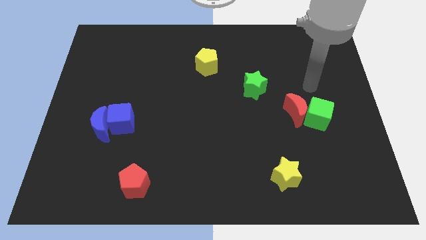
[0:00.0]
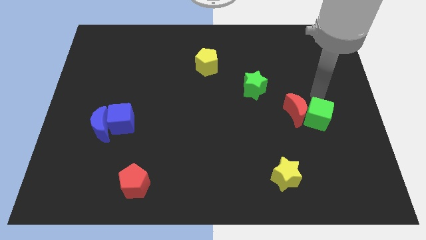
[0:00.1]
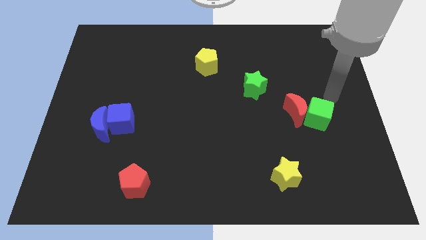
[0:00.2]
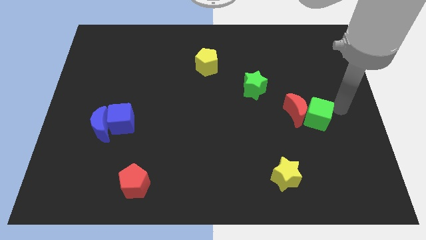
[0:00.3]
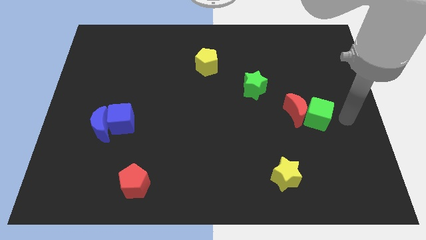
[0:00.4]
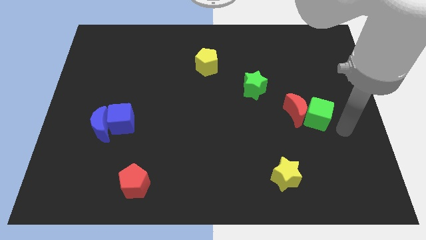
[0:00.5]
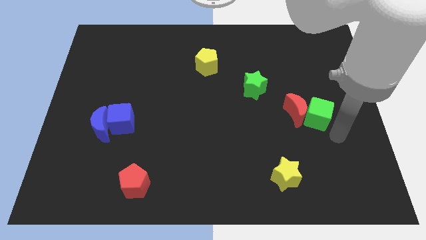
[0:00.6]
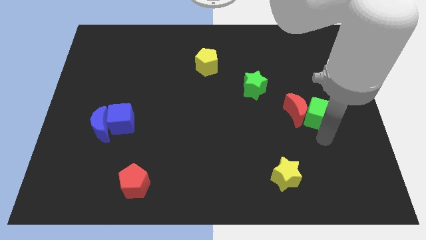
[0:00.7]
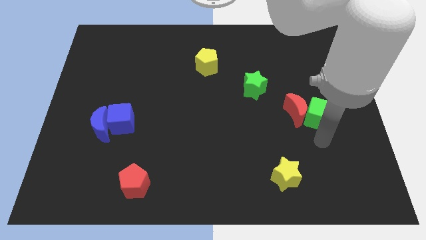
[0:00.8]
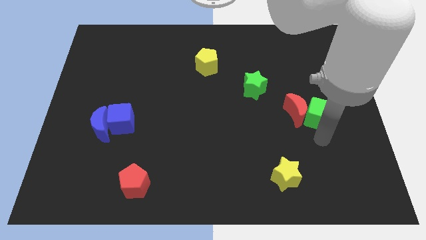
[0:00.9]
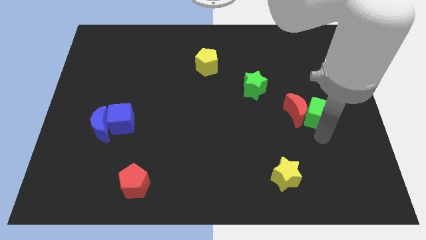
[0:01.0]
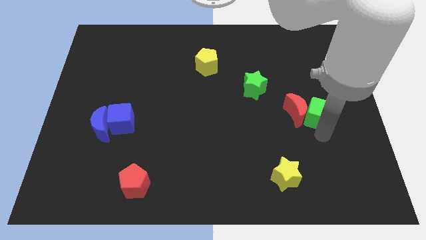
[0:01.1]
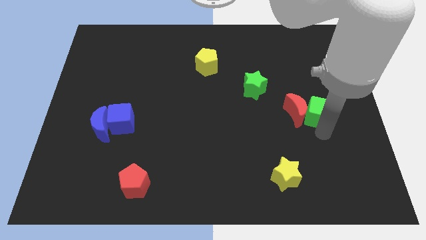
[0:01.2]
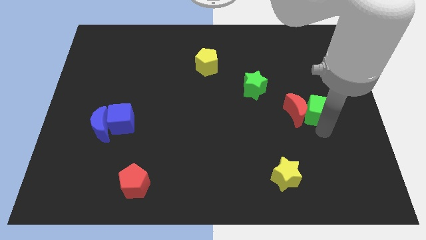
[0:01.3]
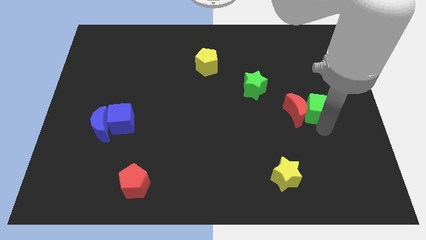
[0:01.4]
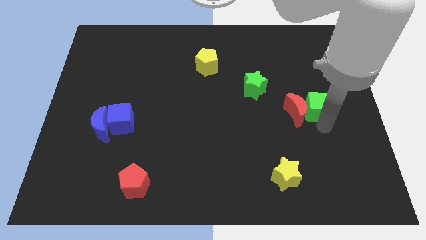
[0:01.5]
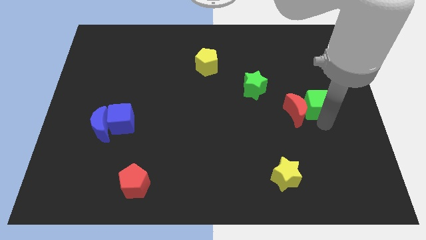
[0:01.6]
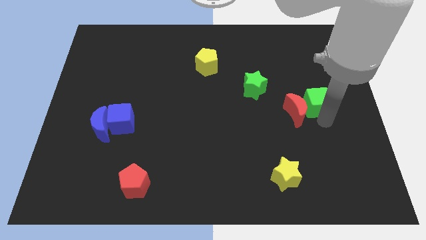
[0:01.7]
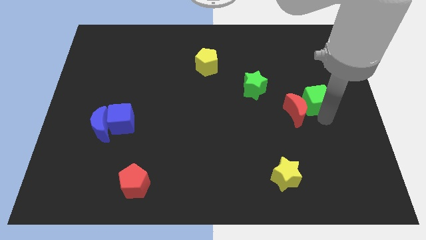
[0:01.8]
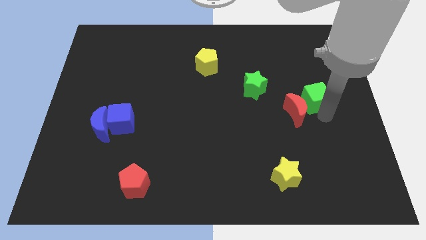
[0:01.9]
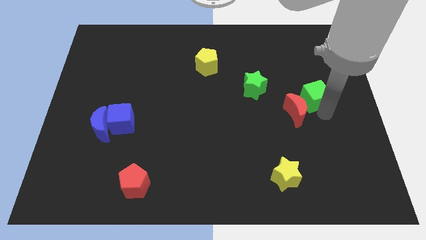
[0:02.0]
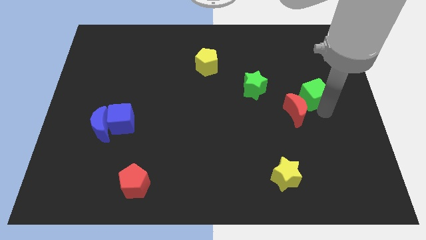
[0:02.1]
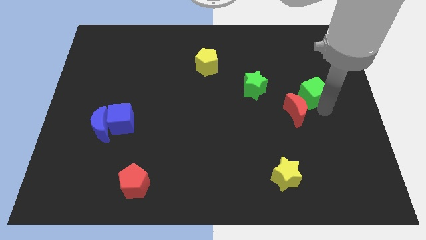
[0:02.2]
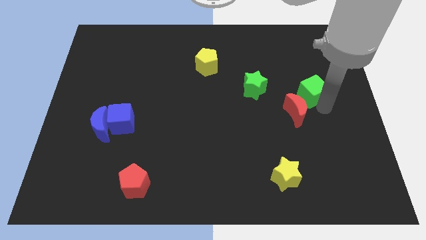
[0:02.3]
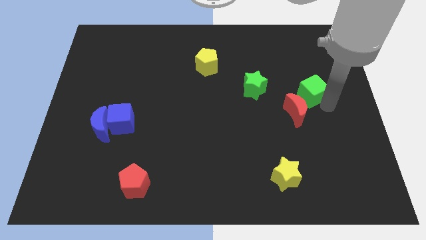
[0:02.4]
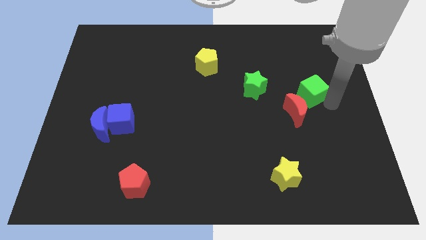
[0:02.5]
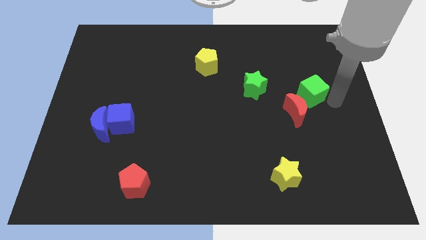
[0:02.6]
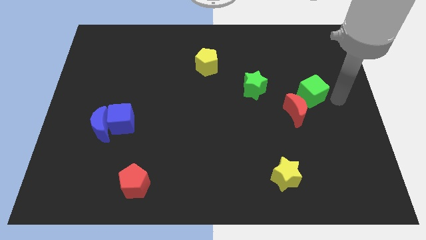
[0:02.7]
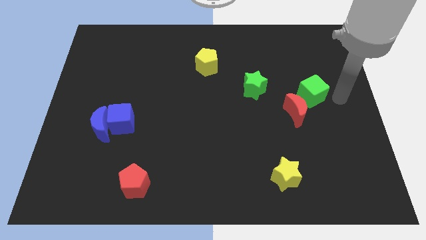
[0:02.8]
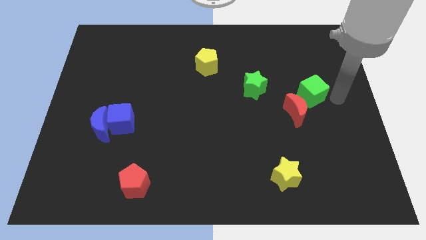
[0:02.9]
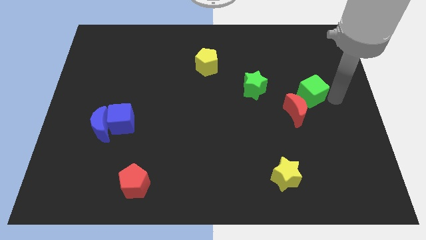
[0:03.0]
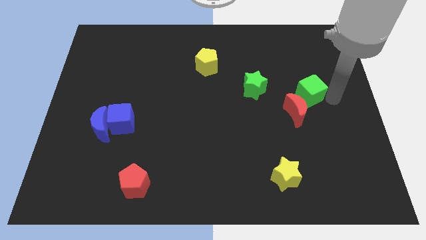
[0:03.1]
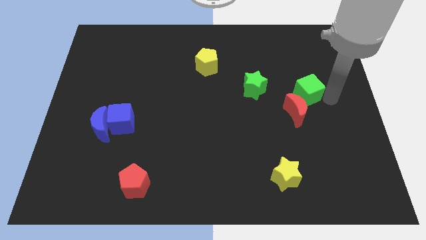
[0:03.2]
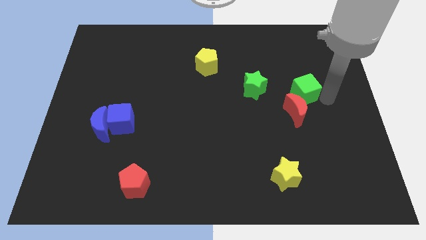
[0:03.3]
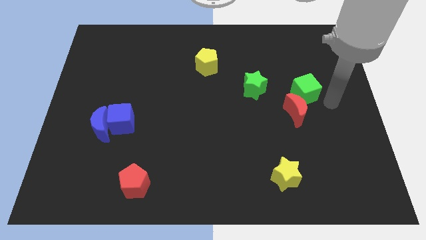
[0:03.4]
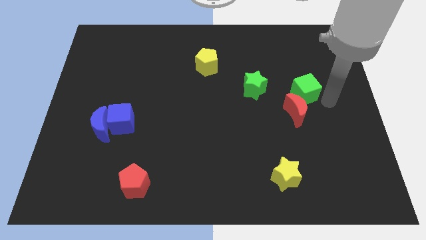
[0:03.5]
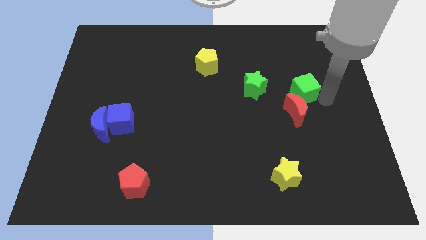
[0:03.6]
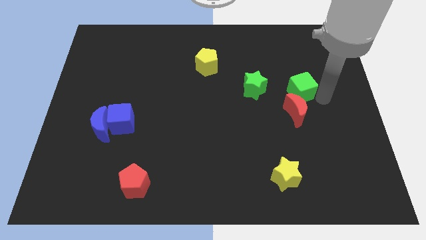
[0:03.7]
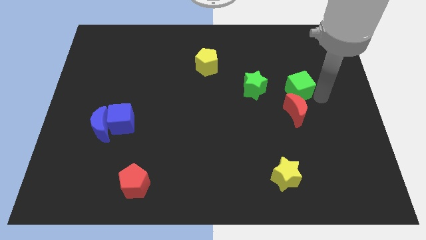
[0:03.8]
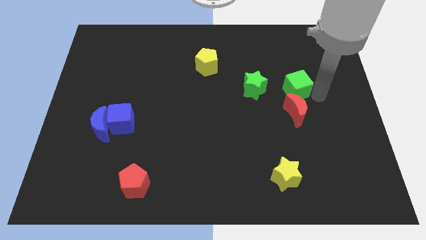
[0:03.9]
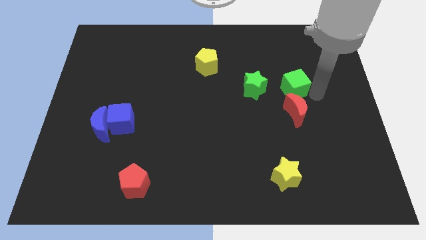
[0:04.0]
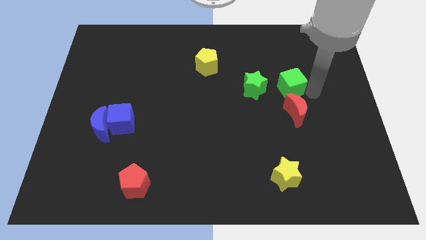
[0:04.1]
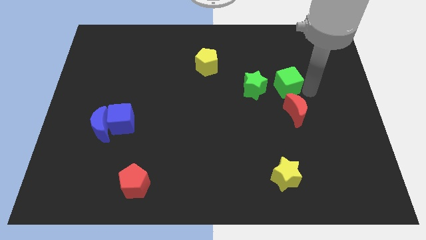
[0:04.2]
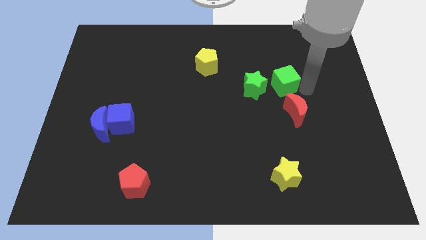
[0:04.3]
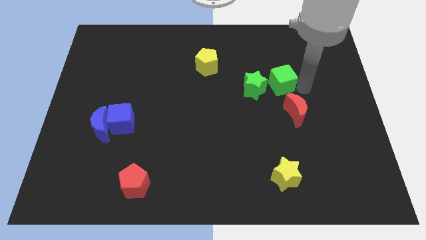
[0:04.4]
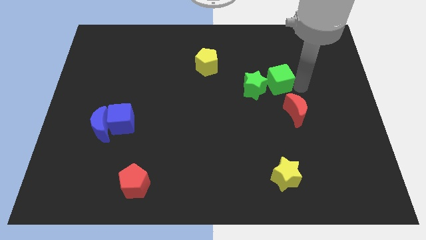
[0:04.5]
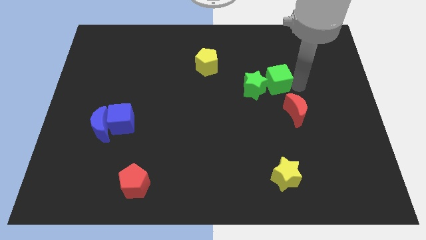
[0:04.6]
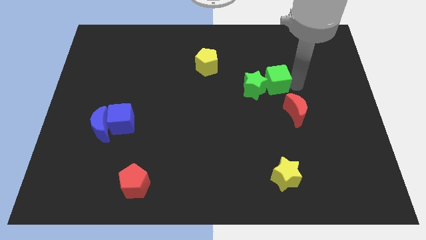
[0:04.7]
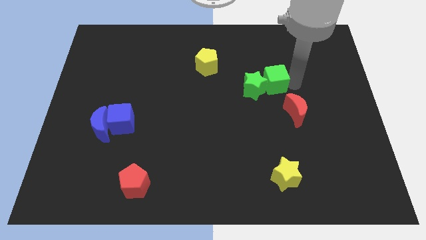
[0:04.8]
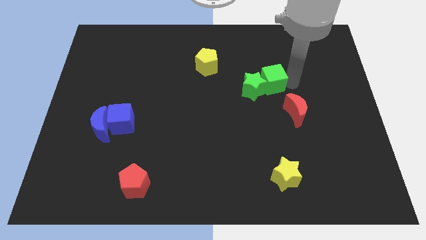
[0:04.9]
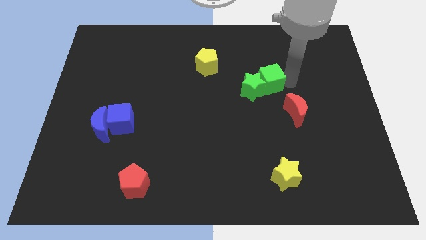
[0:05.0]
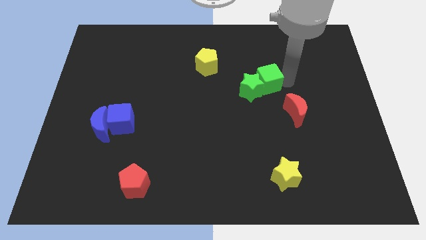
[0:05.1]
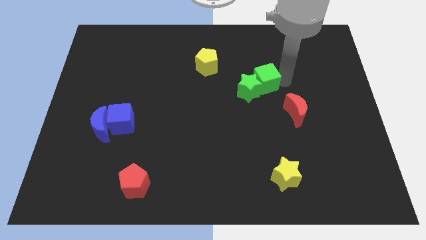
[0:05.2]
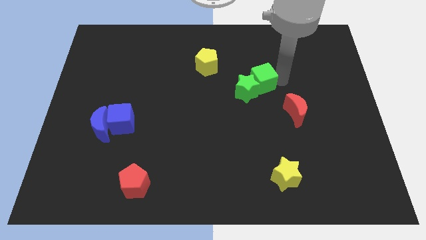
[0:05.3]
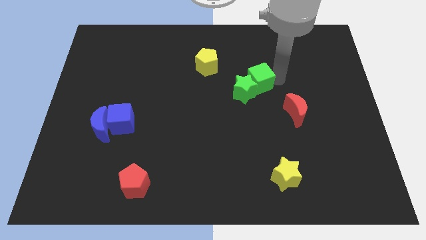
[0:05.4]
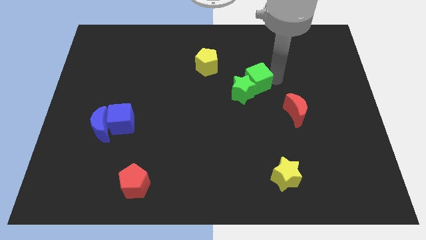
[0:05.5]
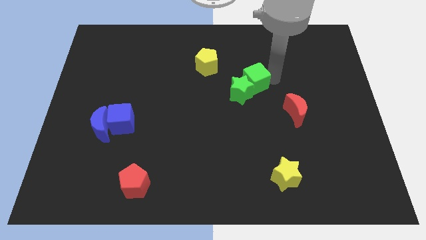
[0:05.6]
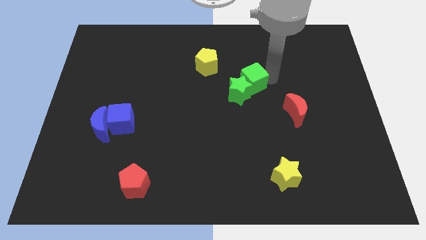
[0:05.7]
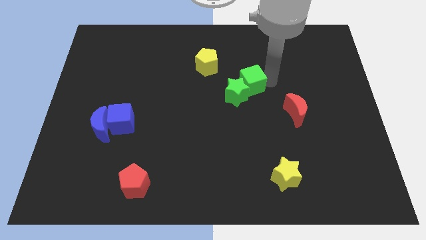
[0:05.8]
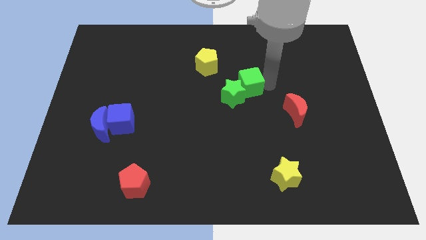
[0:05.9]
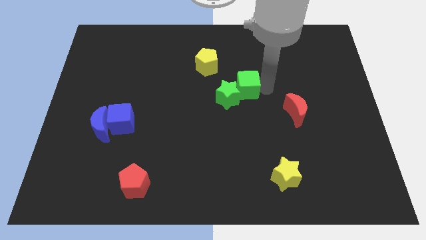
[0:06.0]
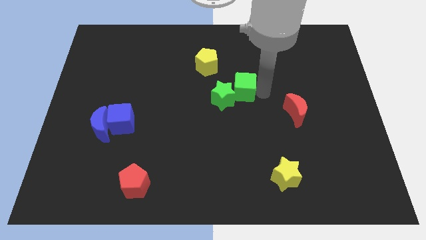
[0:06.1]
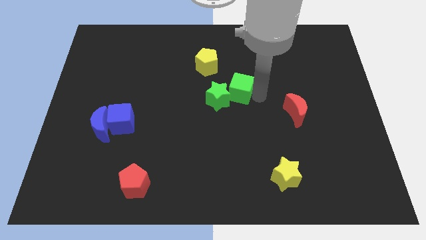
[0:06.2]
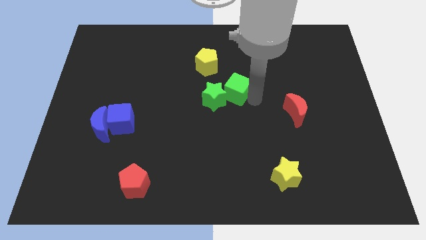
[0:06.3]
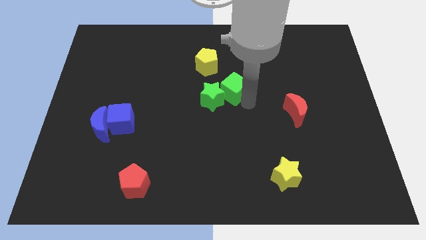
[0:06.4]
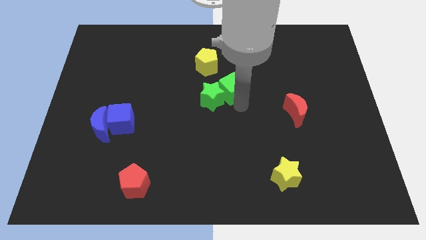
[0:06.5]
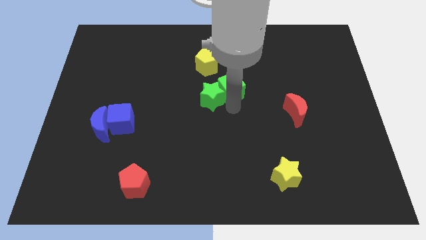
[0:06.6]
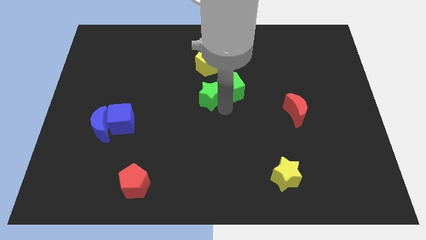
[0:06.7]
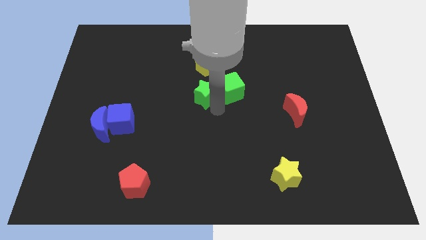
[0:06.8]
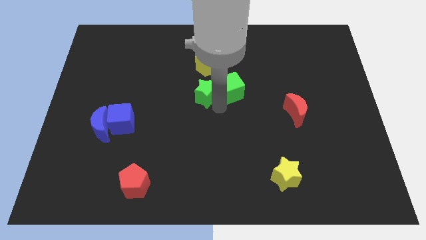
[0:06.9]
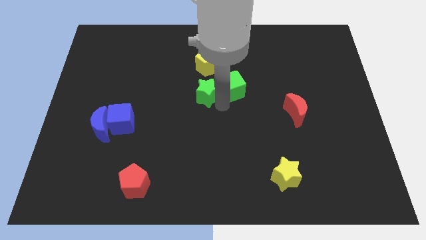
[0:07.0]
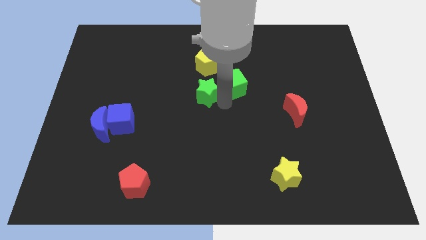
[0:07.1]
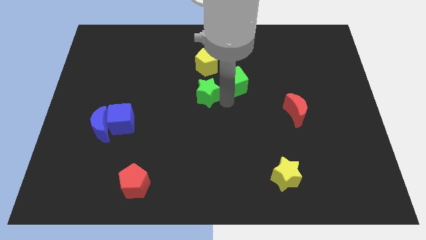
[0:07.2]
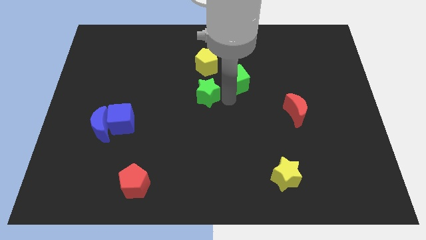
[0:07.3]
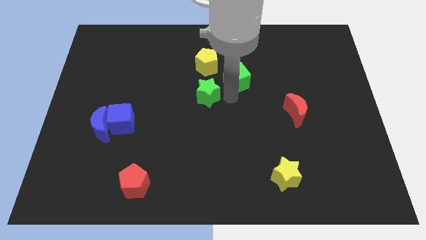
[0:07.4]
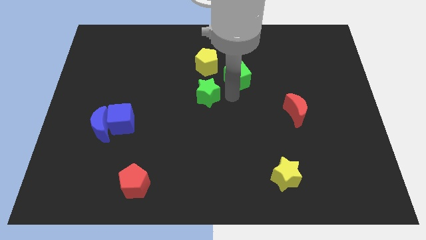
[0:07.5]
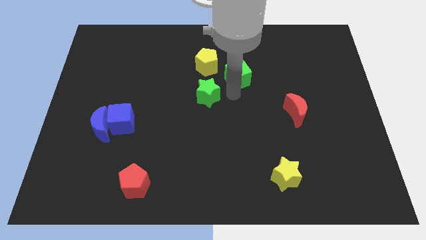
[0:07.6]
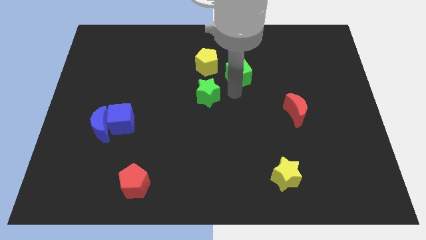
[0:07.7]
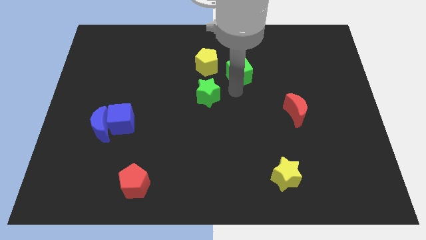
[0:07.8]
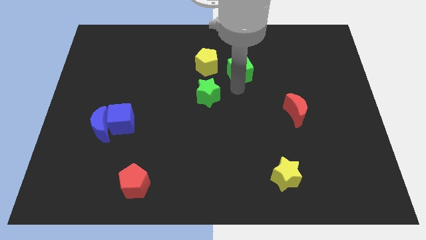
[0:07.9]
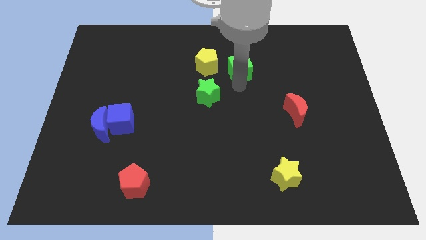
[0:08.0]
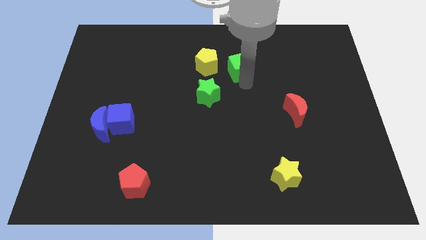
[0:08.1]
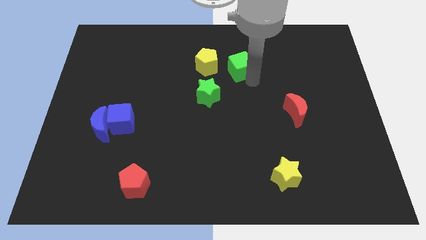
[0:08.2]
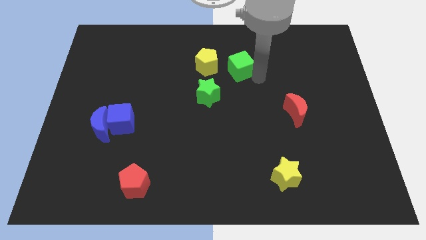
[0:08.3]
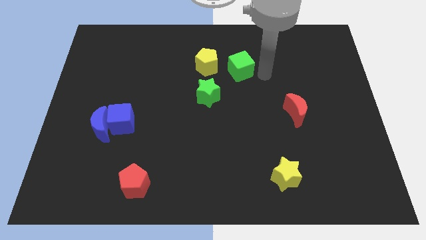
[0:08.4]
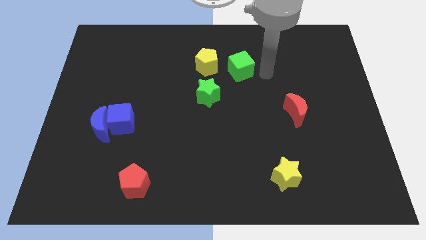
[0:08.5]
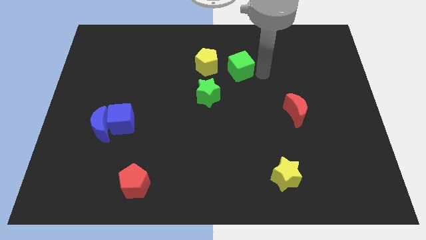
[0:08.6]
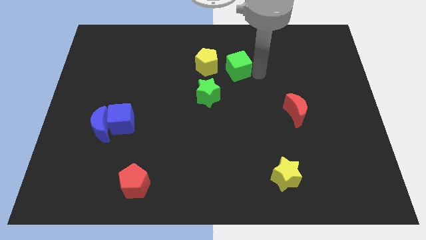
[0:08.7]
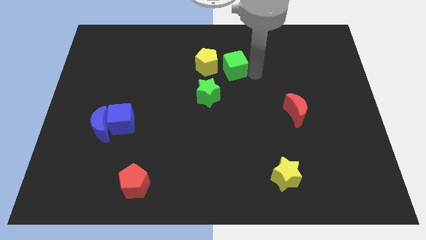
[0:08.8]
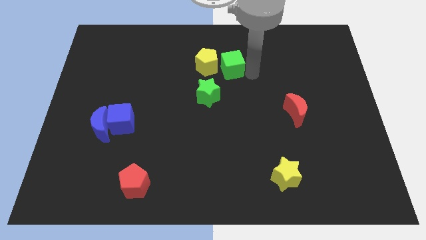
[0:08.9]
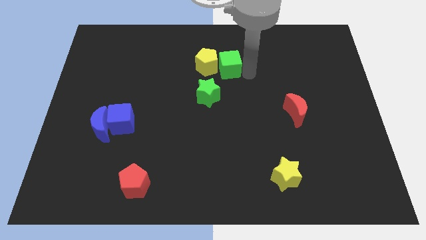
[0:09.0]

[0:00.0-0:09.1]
put the green cube towards the yellow pentagon
